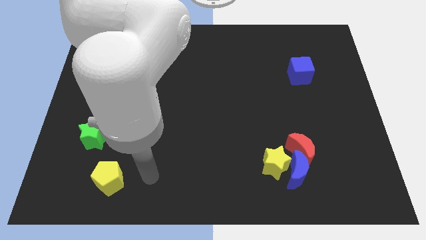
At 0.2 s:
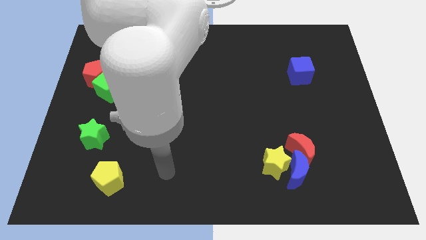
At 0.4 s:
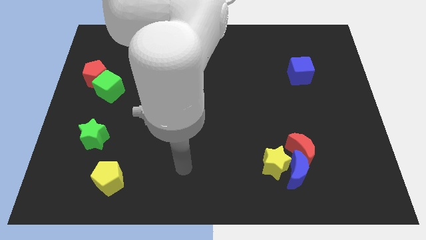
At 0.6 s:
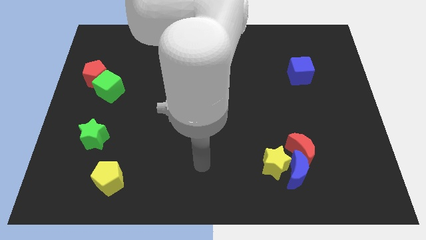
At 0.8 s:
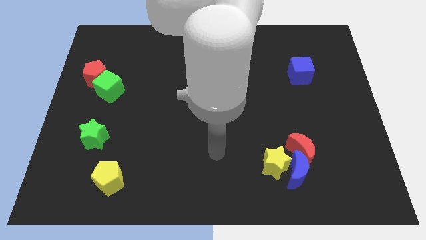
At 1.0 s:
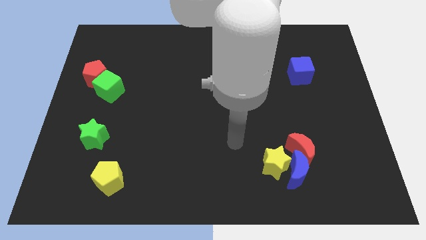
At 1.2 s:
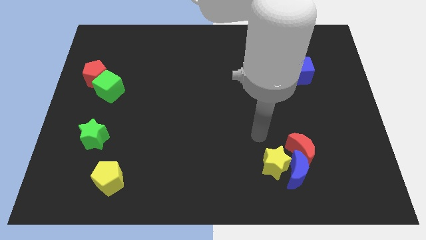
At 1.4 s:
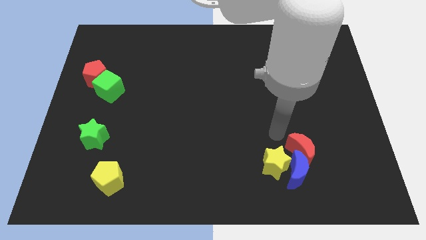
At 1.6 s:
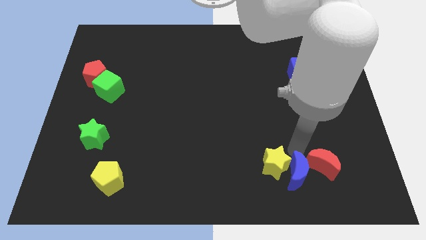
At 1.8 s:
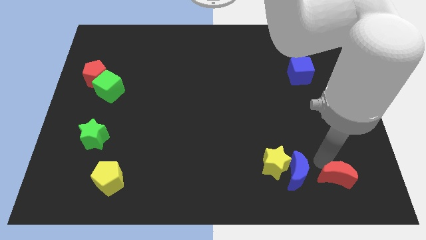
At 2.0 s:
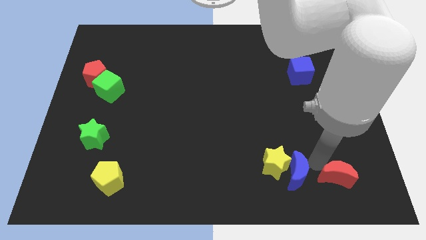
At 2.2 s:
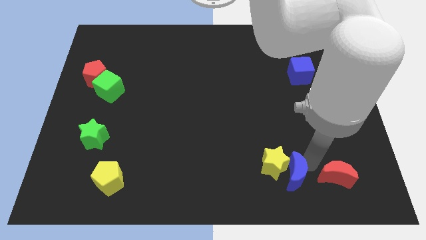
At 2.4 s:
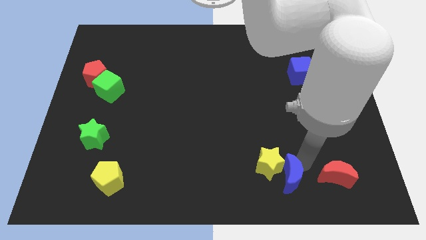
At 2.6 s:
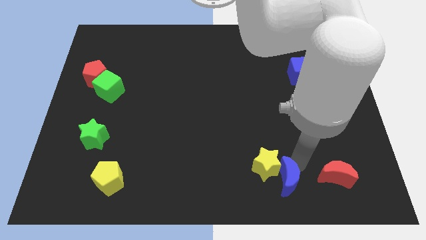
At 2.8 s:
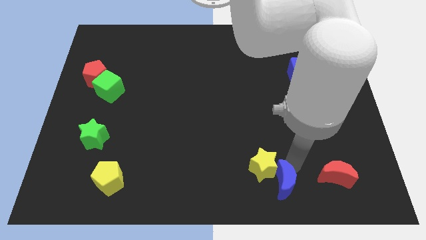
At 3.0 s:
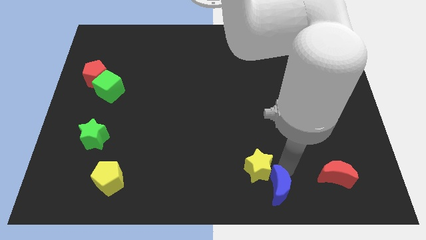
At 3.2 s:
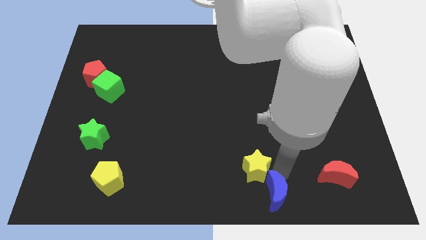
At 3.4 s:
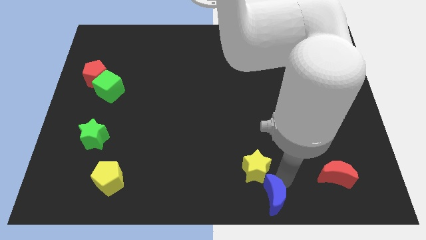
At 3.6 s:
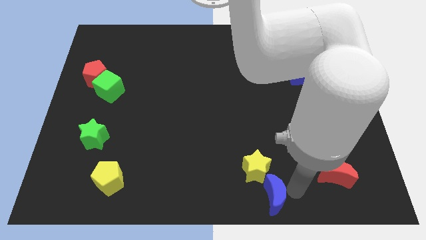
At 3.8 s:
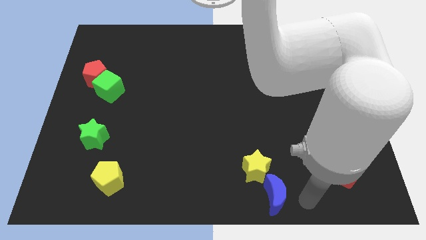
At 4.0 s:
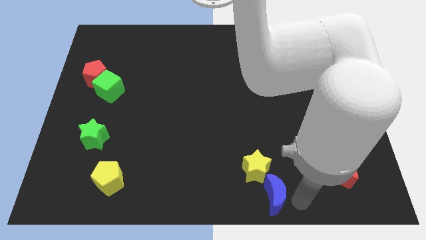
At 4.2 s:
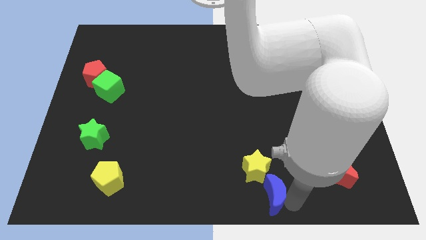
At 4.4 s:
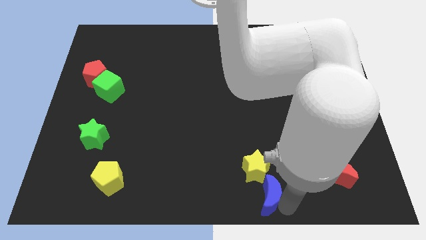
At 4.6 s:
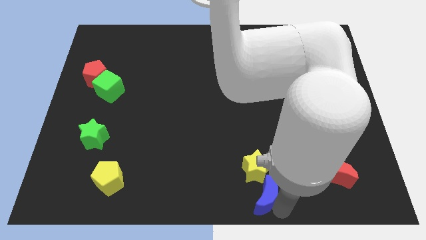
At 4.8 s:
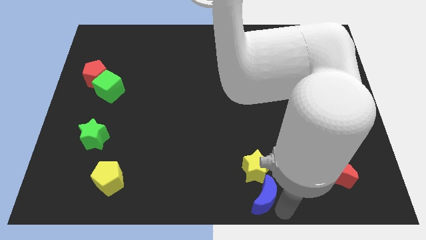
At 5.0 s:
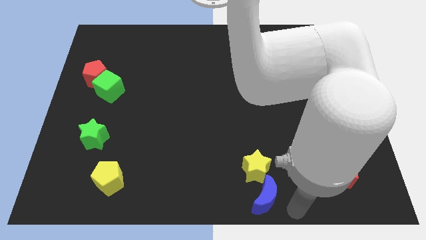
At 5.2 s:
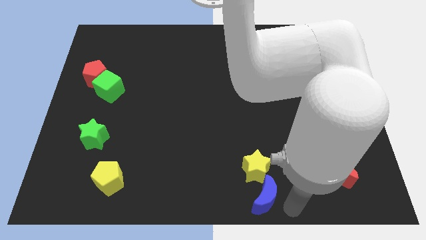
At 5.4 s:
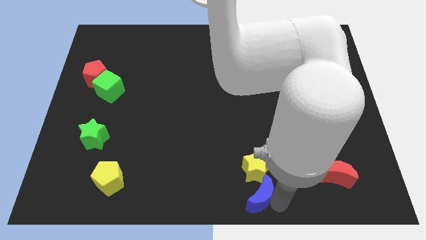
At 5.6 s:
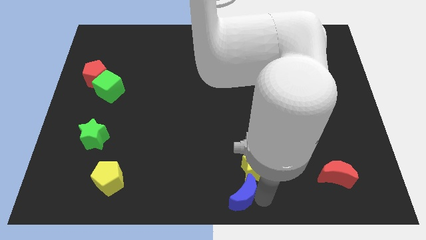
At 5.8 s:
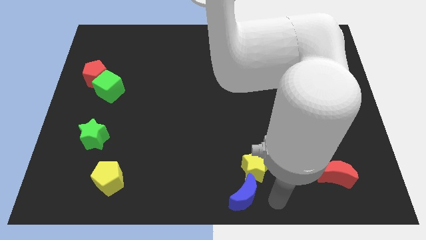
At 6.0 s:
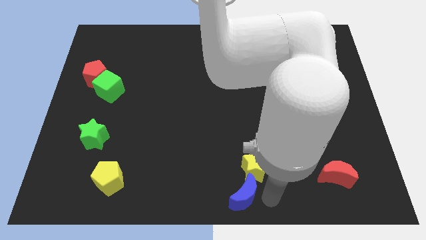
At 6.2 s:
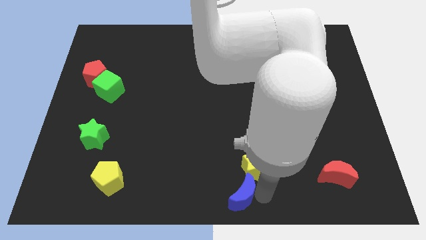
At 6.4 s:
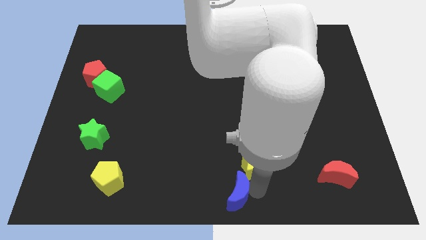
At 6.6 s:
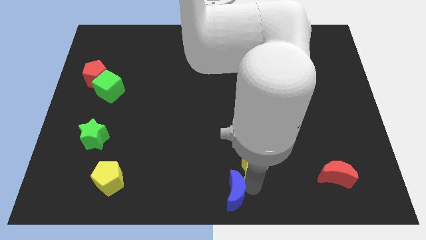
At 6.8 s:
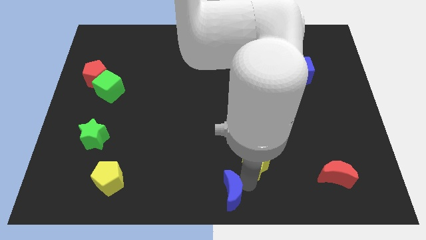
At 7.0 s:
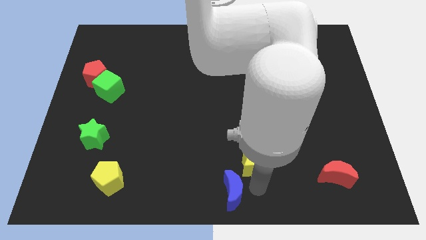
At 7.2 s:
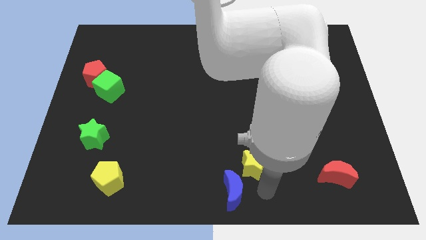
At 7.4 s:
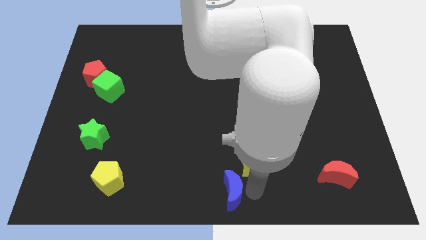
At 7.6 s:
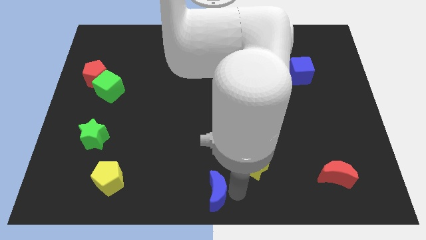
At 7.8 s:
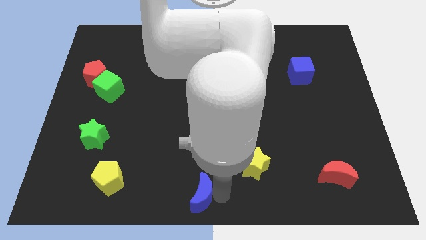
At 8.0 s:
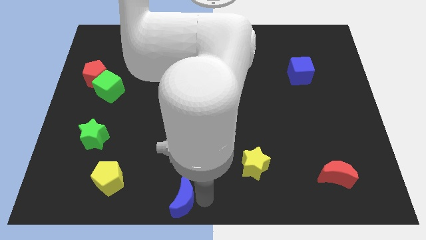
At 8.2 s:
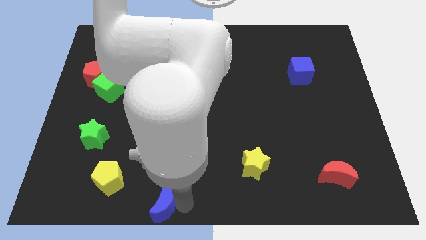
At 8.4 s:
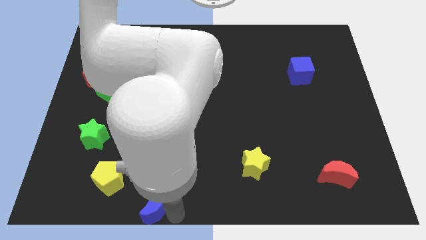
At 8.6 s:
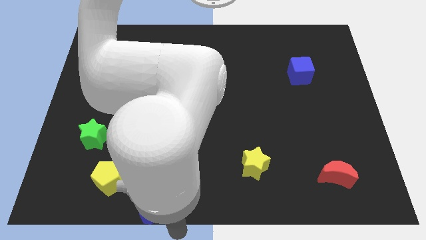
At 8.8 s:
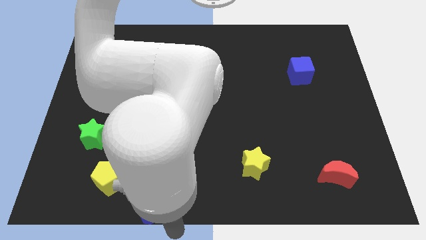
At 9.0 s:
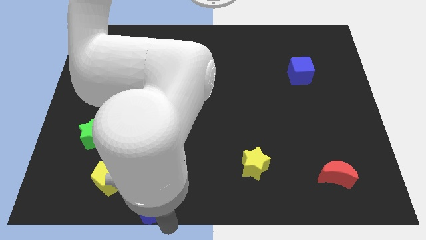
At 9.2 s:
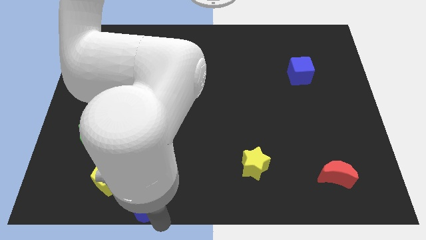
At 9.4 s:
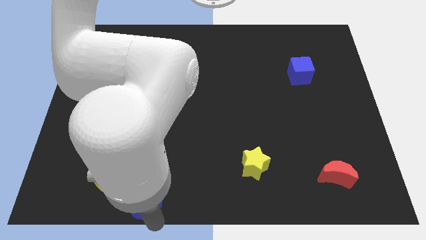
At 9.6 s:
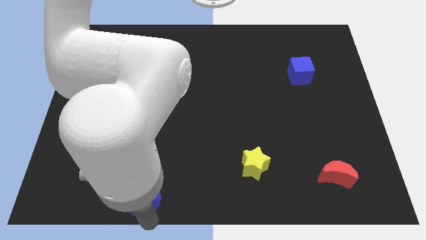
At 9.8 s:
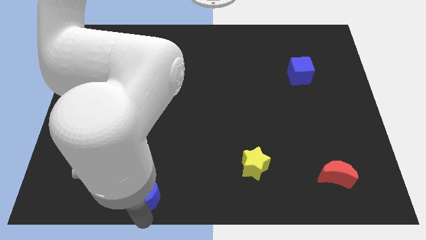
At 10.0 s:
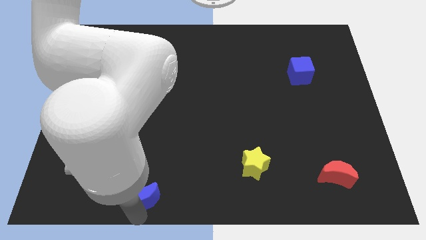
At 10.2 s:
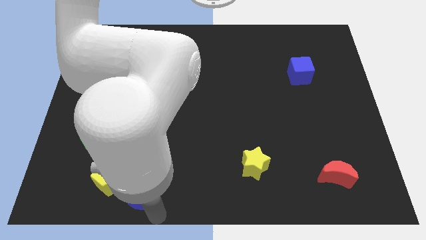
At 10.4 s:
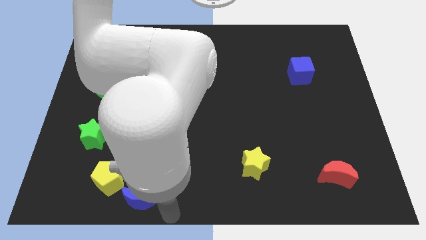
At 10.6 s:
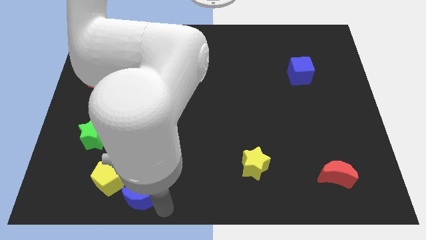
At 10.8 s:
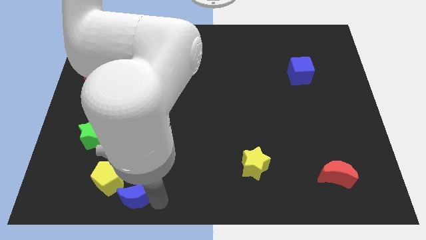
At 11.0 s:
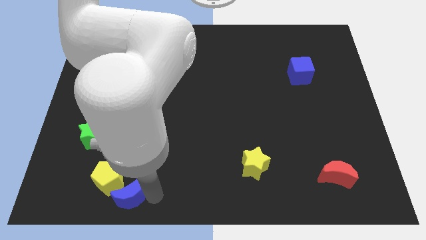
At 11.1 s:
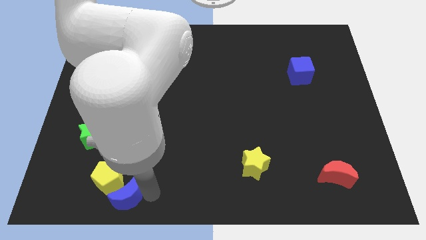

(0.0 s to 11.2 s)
slide the blue moon towards the yellow pentagon

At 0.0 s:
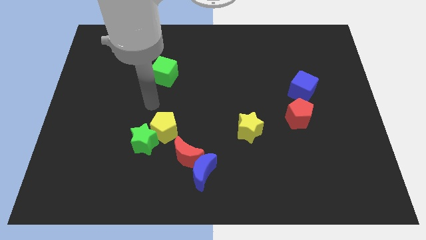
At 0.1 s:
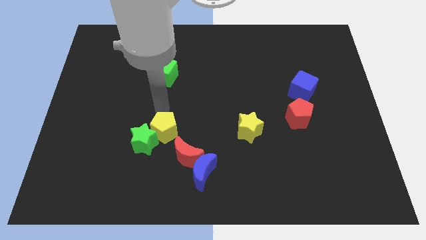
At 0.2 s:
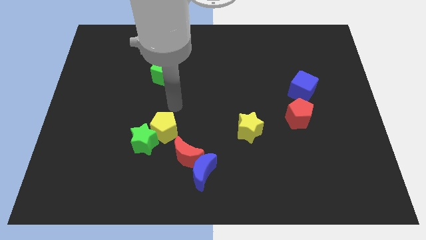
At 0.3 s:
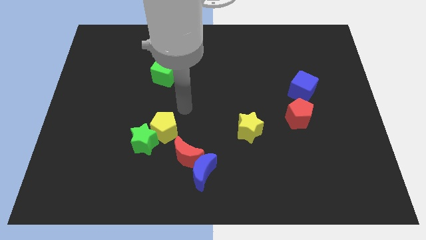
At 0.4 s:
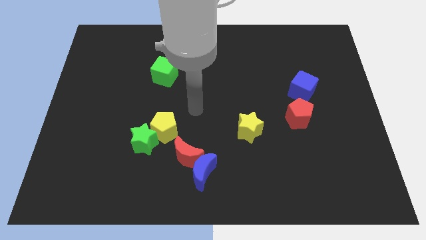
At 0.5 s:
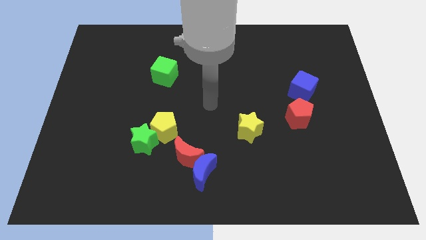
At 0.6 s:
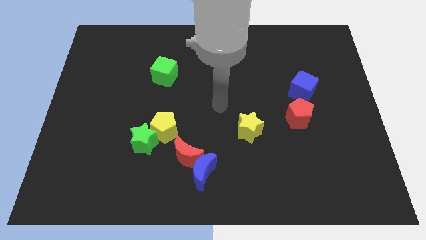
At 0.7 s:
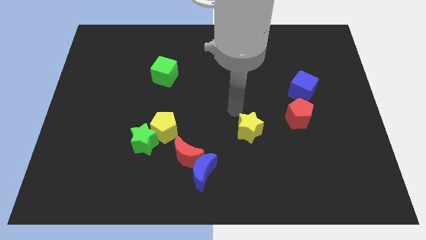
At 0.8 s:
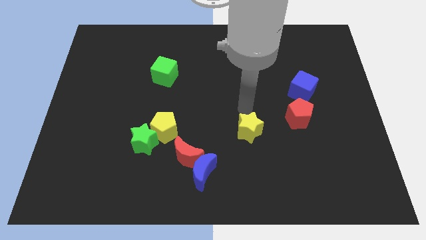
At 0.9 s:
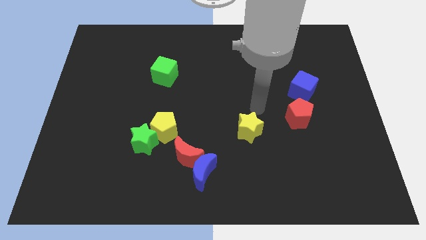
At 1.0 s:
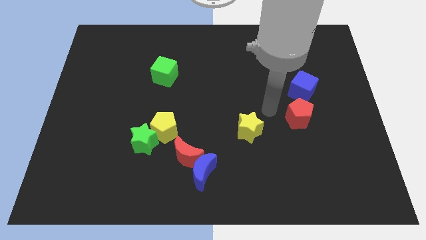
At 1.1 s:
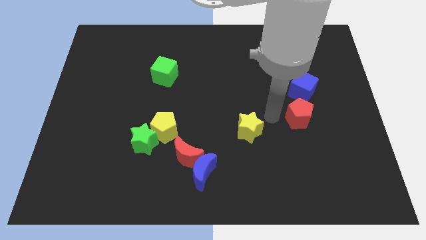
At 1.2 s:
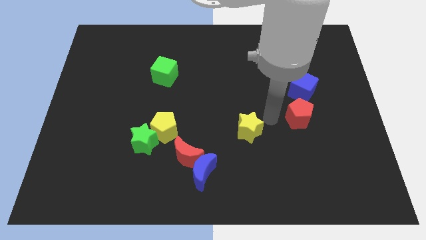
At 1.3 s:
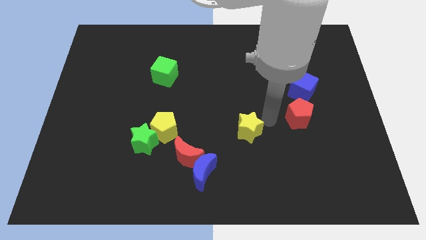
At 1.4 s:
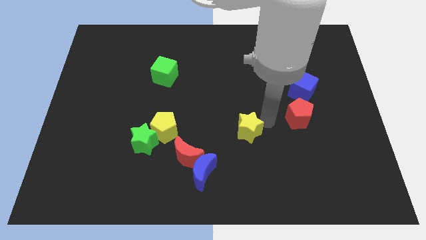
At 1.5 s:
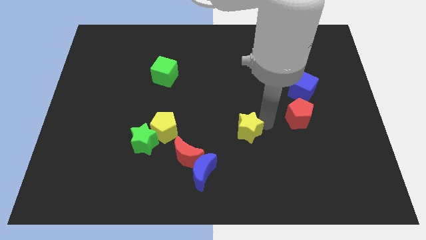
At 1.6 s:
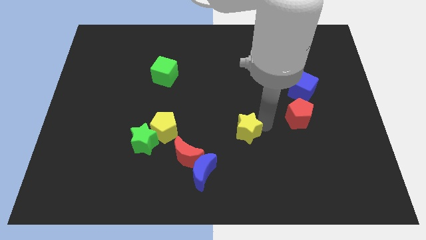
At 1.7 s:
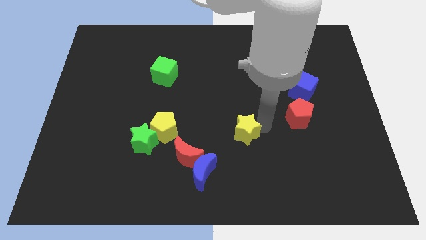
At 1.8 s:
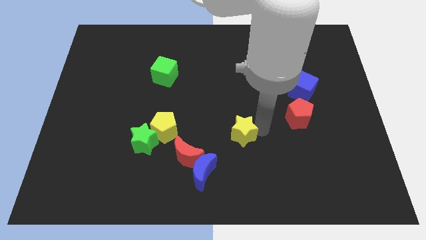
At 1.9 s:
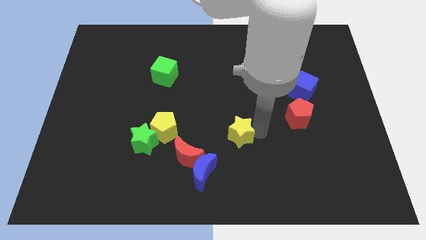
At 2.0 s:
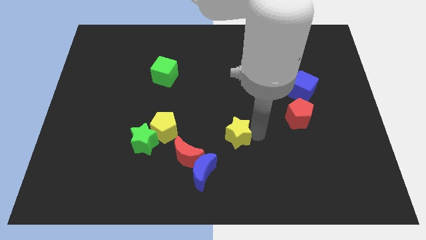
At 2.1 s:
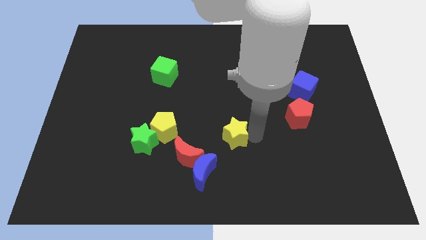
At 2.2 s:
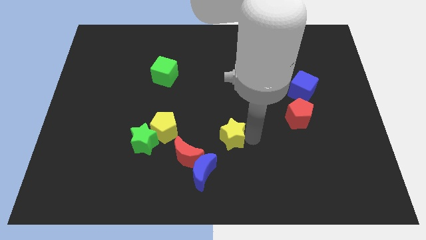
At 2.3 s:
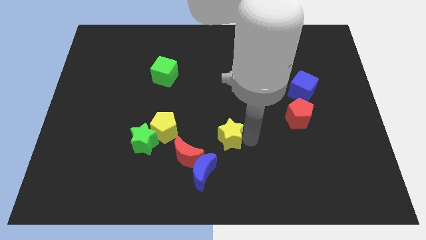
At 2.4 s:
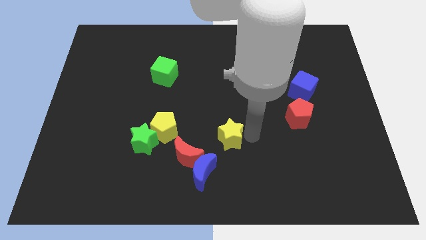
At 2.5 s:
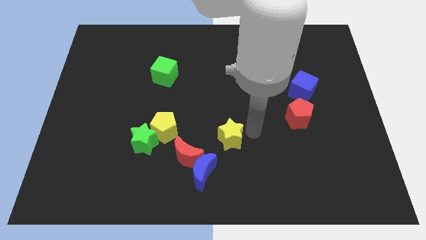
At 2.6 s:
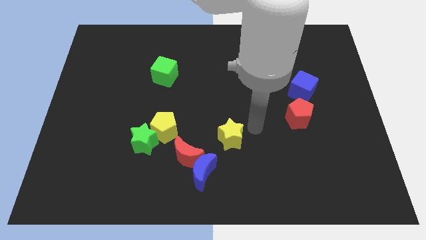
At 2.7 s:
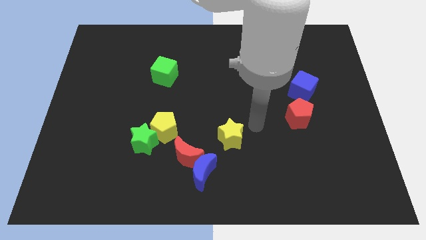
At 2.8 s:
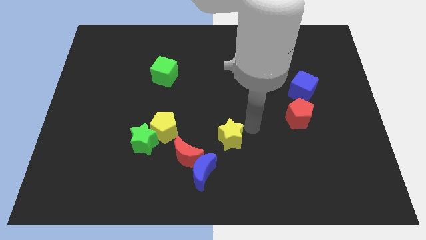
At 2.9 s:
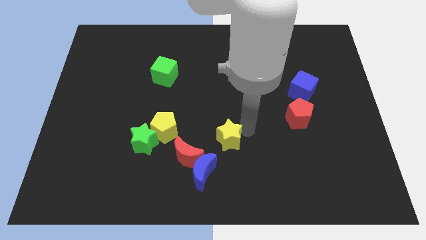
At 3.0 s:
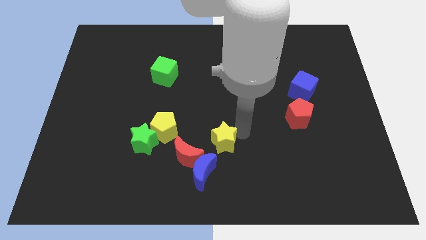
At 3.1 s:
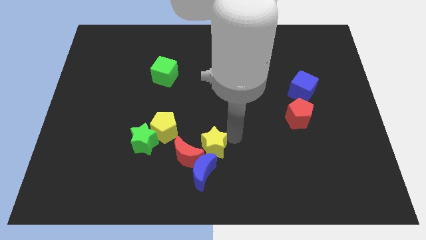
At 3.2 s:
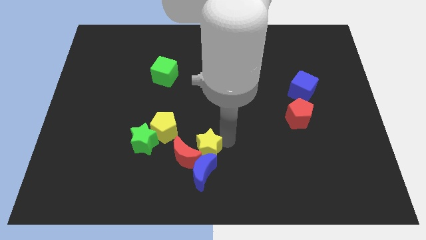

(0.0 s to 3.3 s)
slide the yellow star next to the red moon
